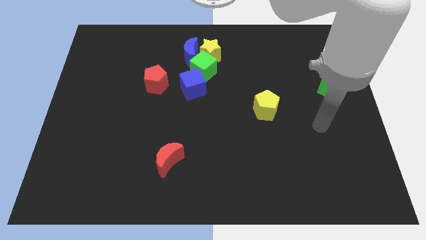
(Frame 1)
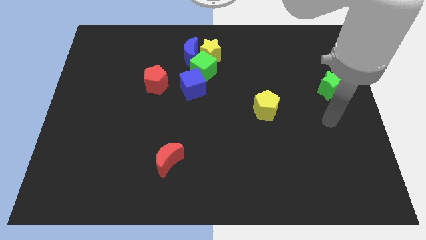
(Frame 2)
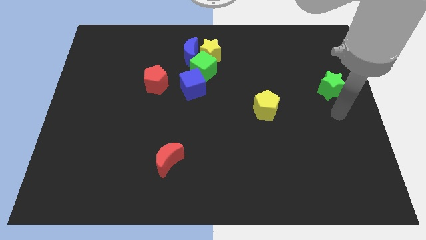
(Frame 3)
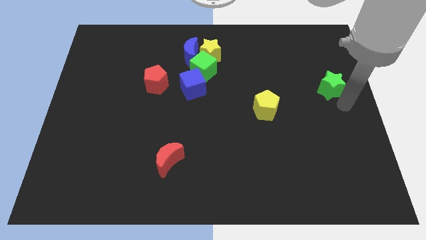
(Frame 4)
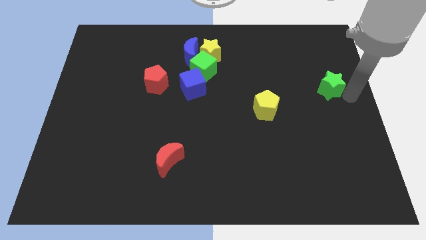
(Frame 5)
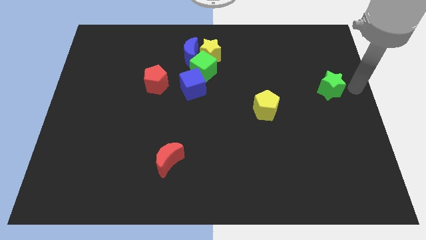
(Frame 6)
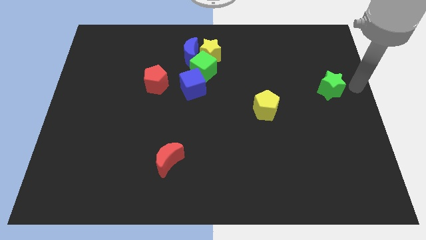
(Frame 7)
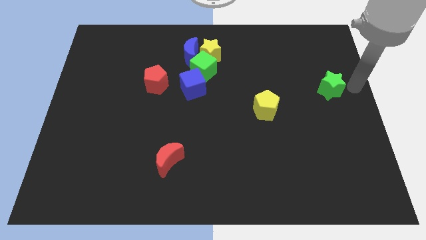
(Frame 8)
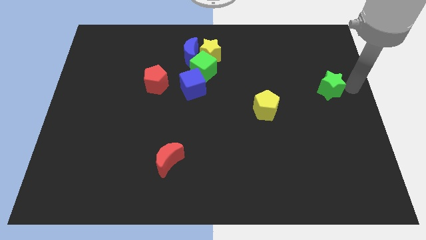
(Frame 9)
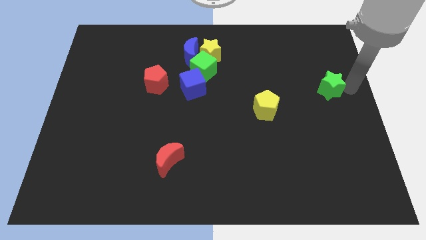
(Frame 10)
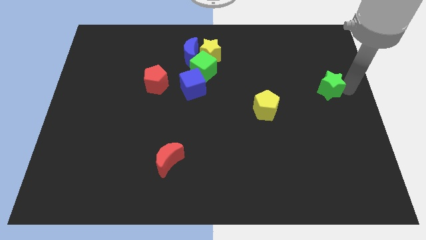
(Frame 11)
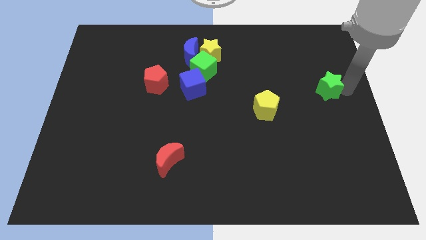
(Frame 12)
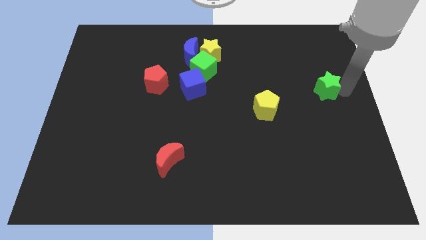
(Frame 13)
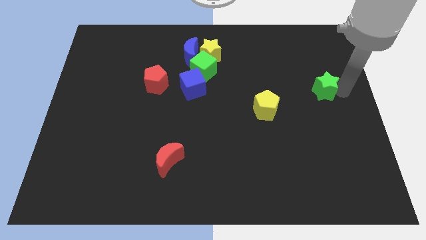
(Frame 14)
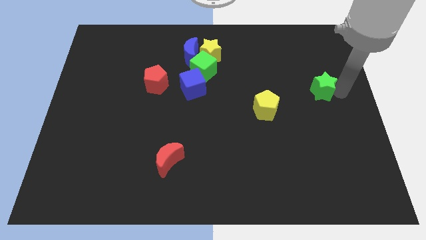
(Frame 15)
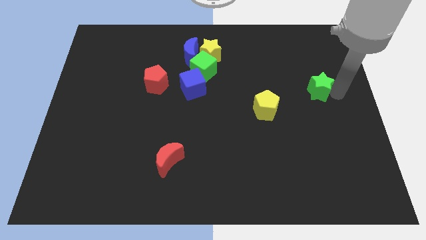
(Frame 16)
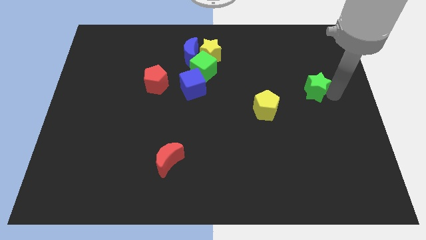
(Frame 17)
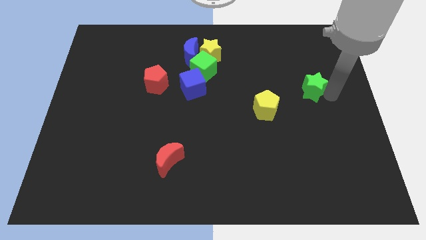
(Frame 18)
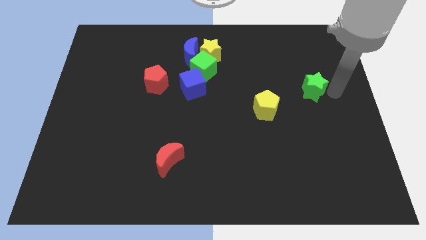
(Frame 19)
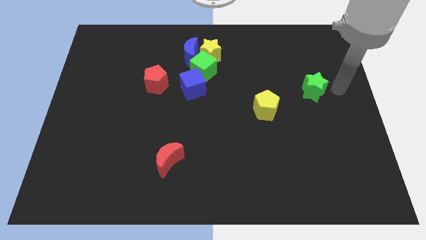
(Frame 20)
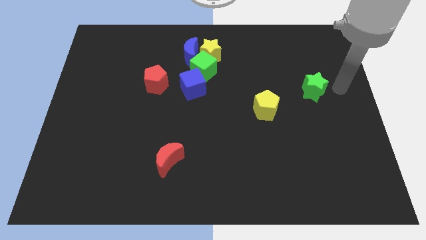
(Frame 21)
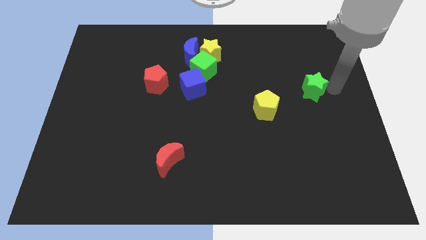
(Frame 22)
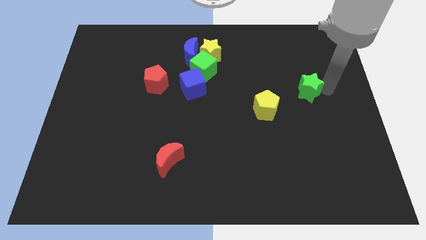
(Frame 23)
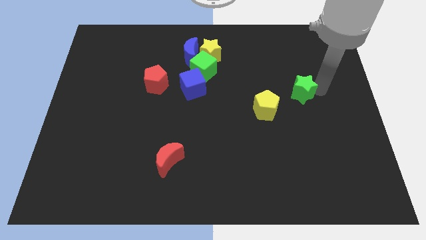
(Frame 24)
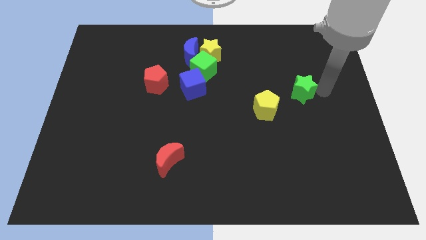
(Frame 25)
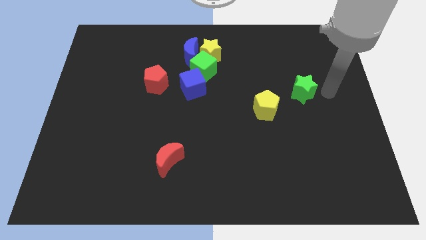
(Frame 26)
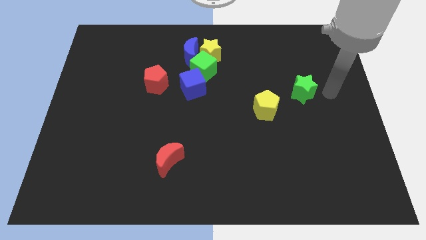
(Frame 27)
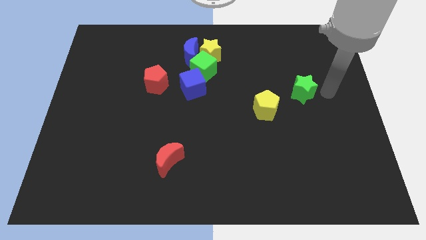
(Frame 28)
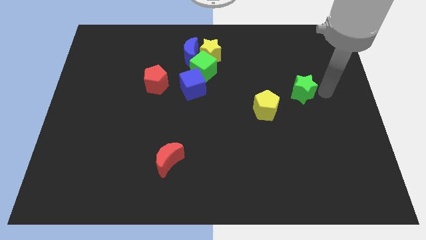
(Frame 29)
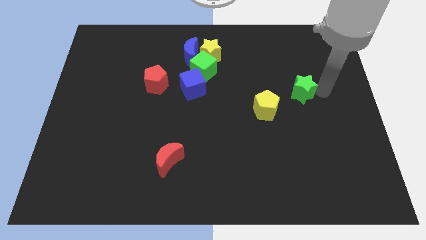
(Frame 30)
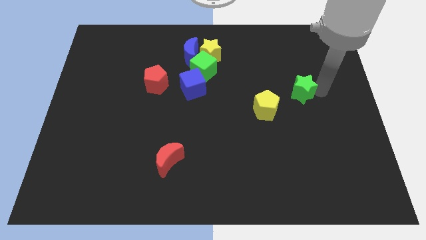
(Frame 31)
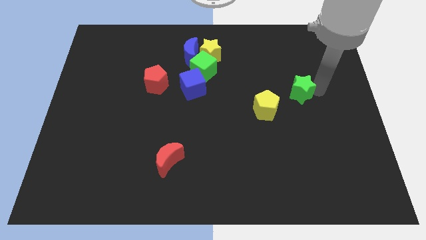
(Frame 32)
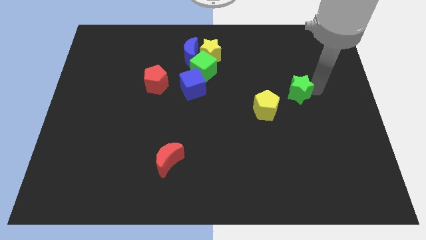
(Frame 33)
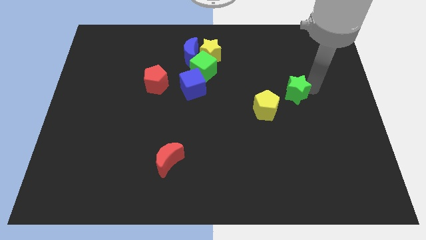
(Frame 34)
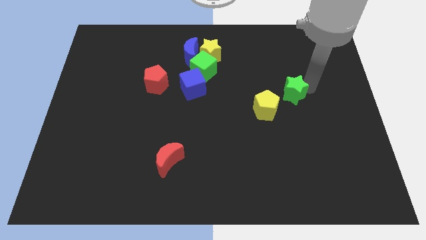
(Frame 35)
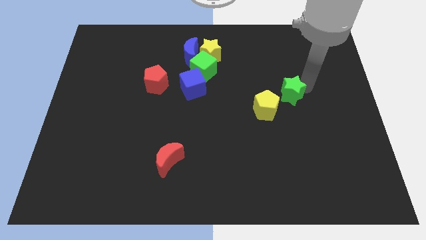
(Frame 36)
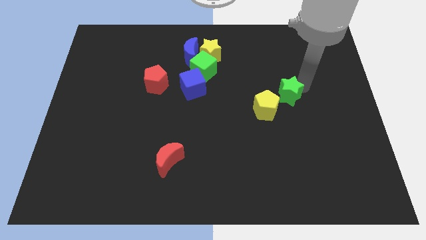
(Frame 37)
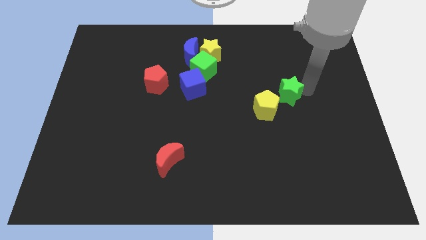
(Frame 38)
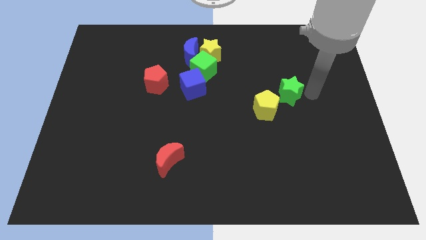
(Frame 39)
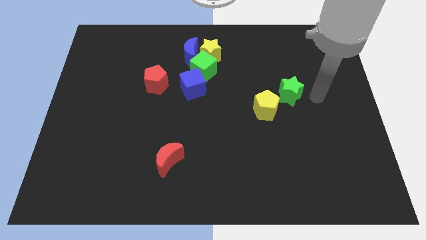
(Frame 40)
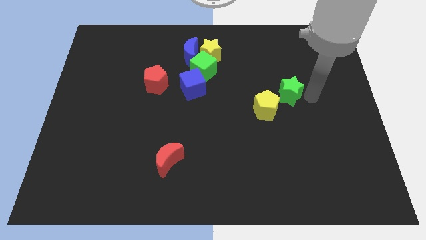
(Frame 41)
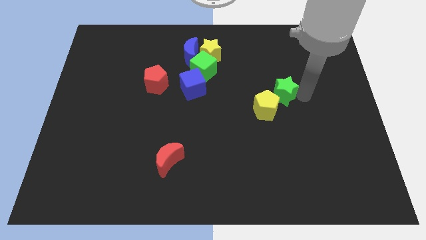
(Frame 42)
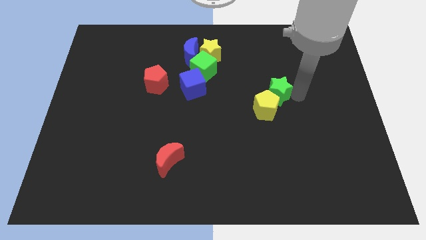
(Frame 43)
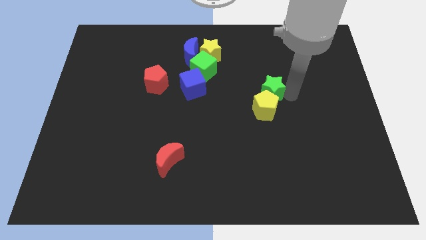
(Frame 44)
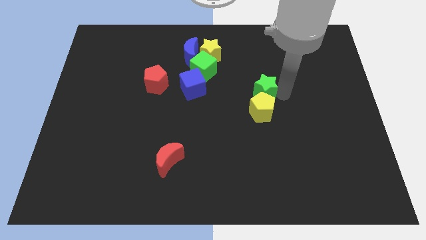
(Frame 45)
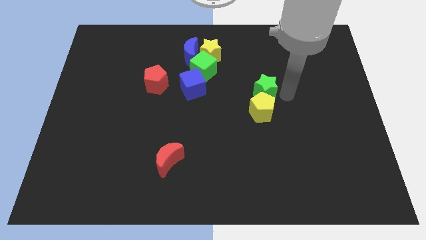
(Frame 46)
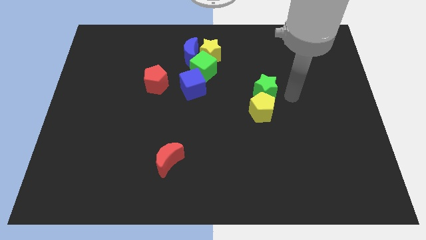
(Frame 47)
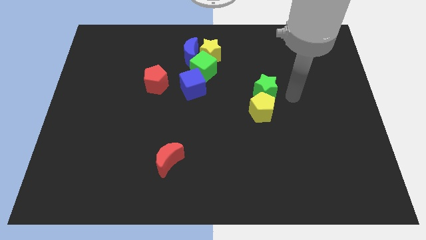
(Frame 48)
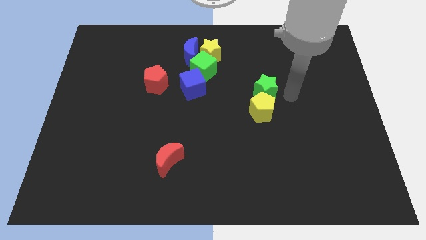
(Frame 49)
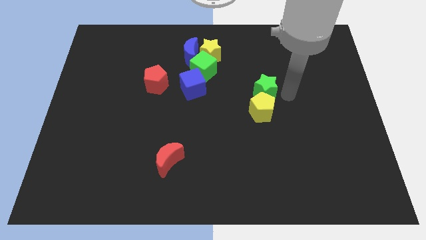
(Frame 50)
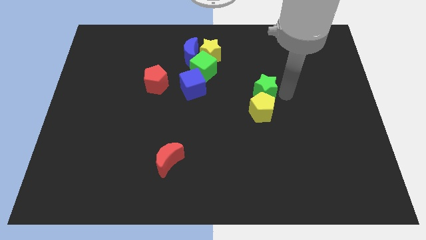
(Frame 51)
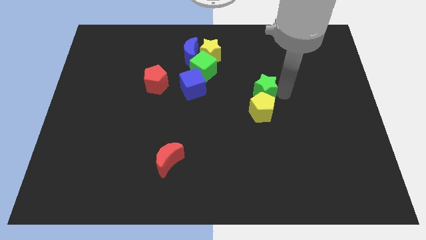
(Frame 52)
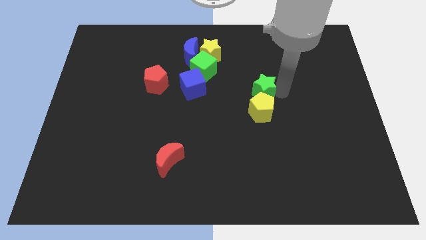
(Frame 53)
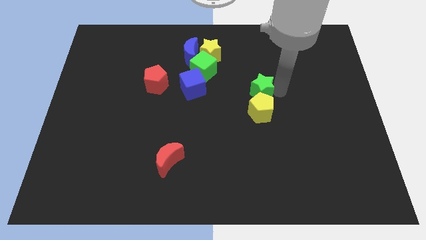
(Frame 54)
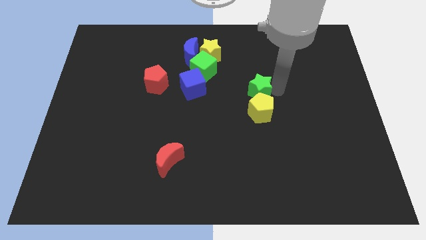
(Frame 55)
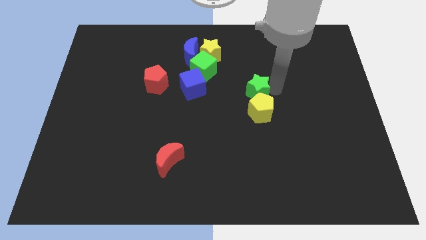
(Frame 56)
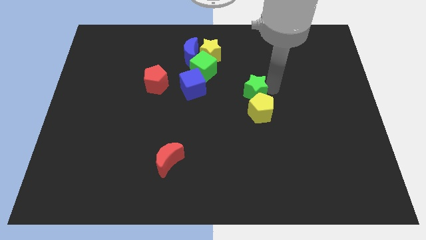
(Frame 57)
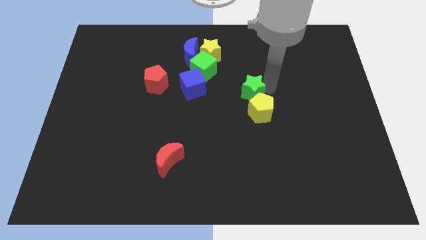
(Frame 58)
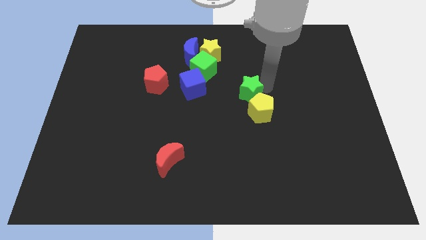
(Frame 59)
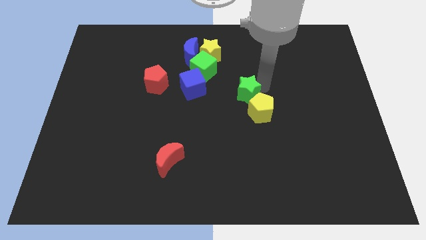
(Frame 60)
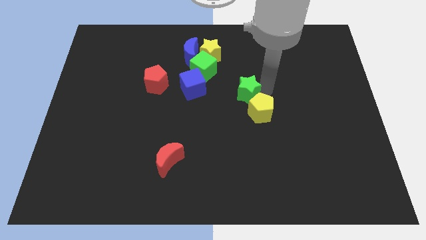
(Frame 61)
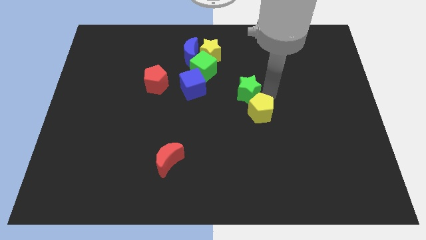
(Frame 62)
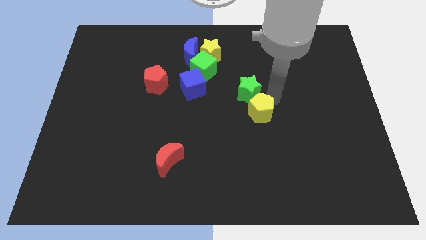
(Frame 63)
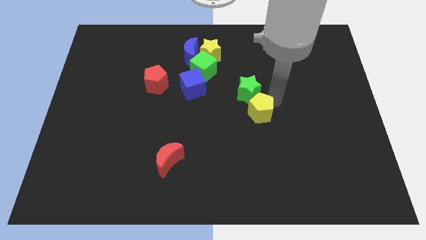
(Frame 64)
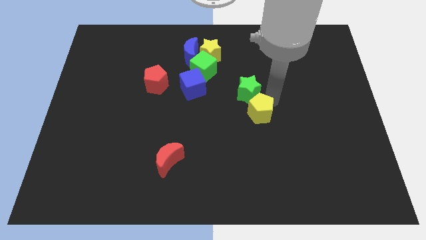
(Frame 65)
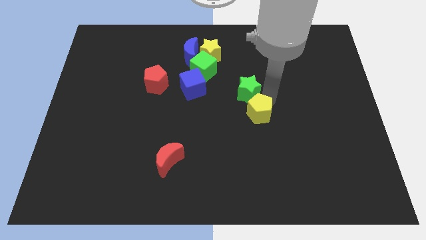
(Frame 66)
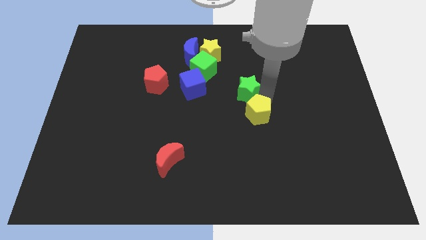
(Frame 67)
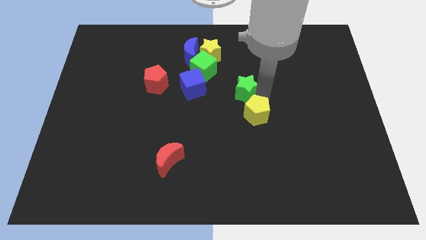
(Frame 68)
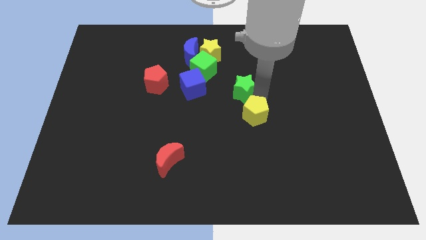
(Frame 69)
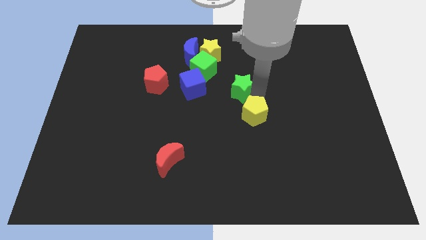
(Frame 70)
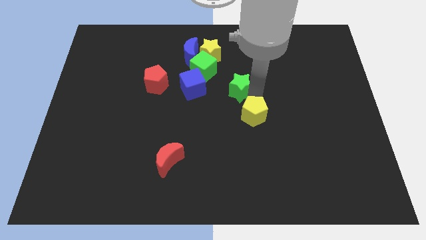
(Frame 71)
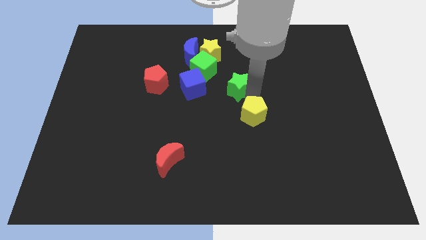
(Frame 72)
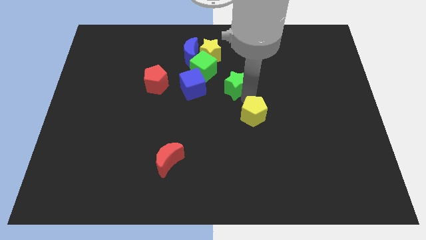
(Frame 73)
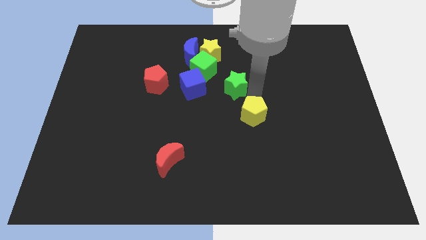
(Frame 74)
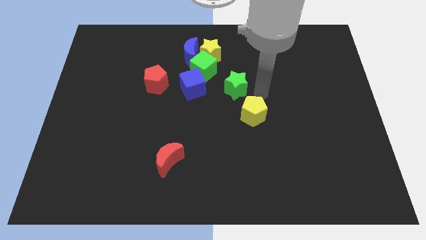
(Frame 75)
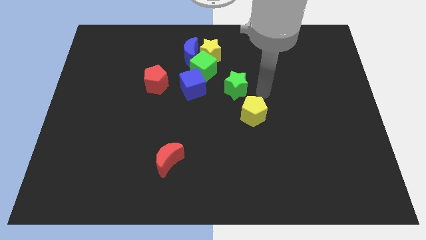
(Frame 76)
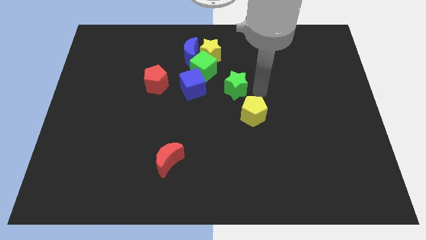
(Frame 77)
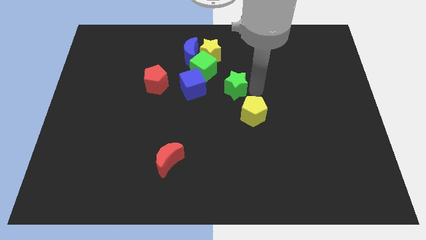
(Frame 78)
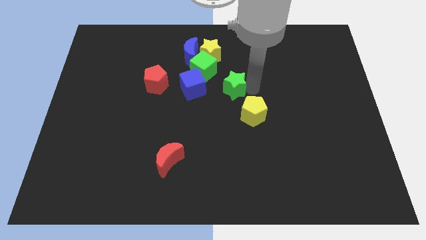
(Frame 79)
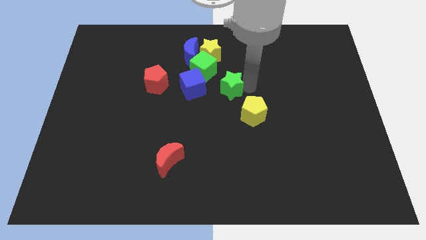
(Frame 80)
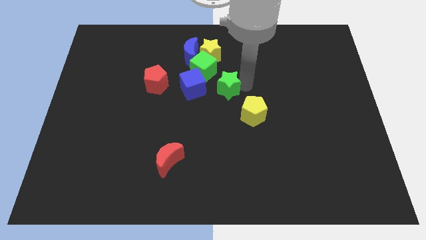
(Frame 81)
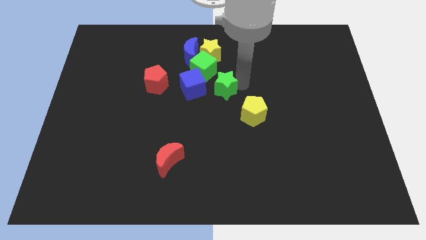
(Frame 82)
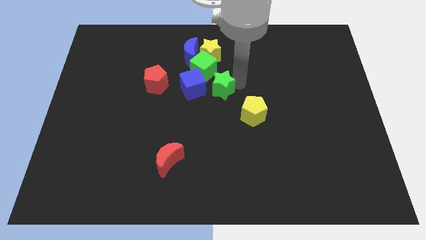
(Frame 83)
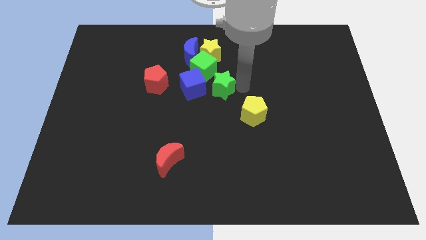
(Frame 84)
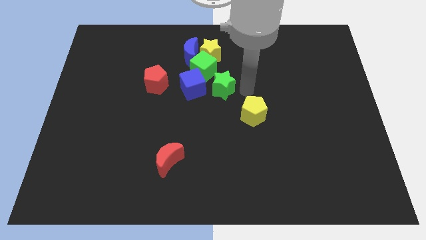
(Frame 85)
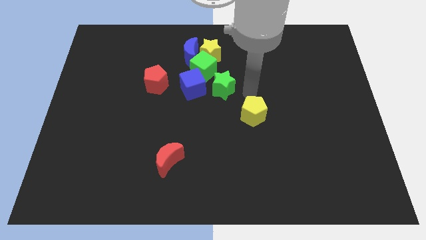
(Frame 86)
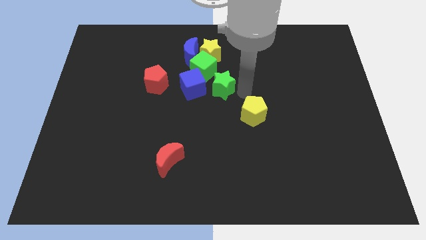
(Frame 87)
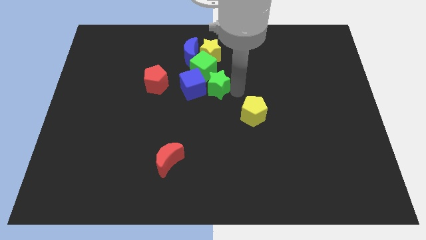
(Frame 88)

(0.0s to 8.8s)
move the green star to the right side of the red pentagon
